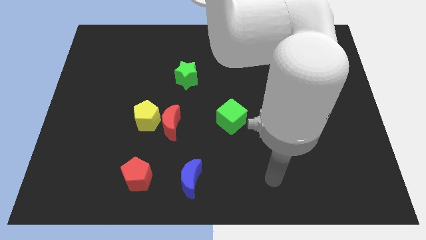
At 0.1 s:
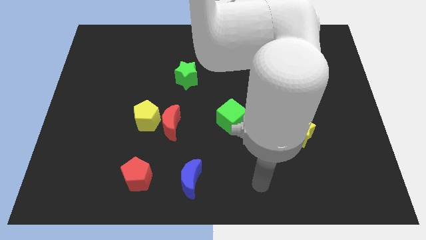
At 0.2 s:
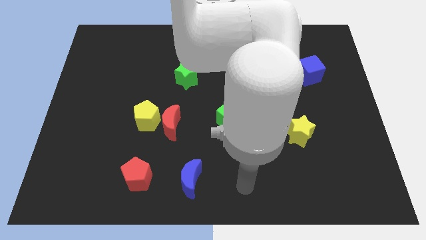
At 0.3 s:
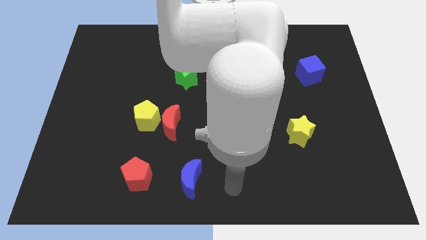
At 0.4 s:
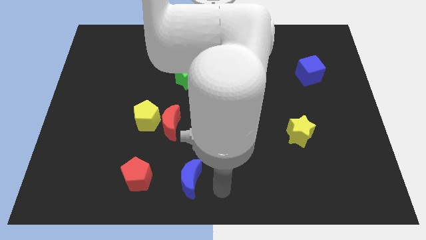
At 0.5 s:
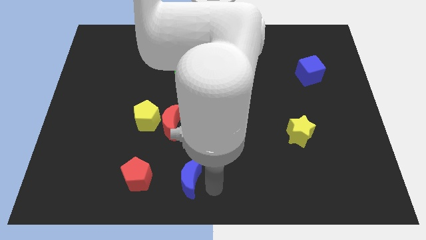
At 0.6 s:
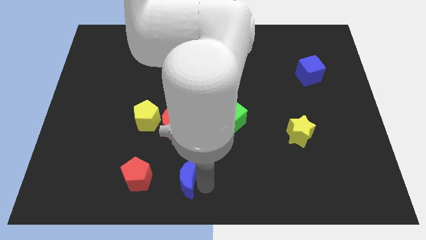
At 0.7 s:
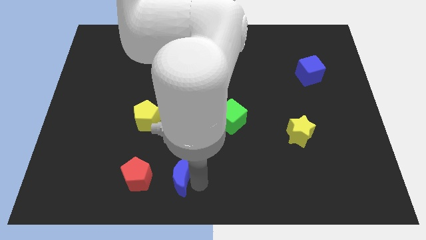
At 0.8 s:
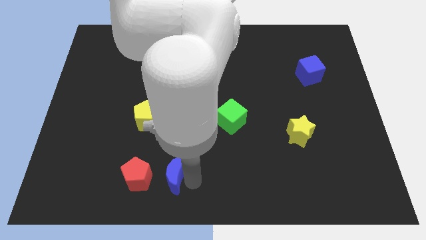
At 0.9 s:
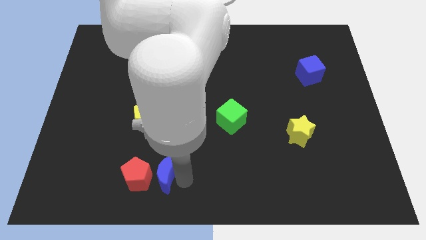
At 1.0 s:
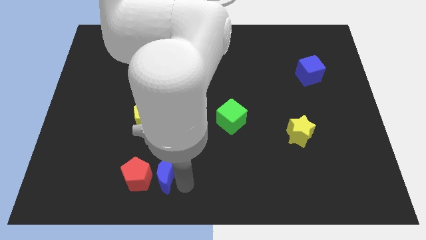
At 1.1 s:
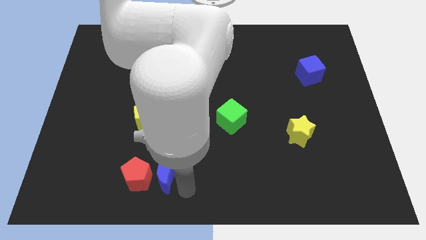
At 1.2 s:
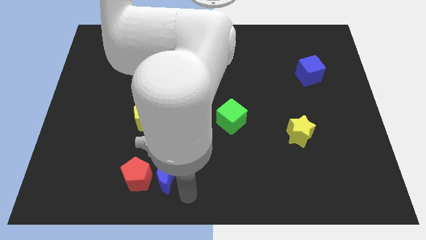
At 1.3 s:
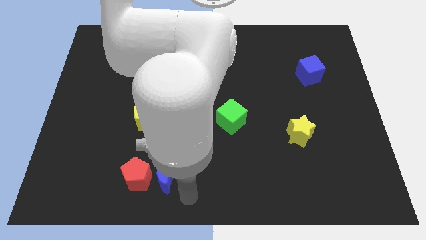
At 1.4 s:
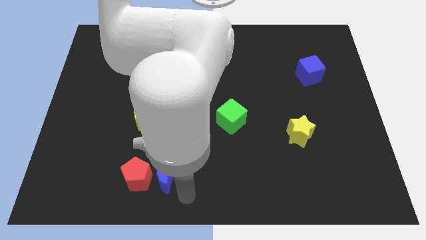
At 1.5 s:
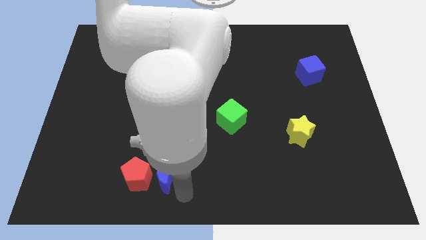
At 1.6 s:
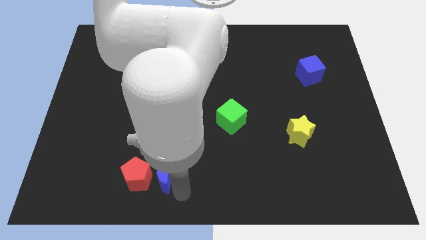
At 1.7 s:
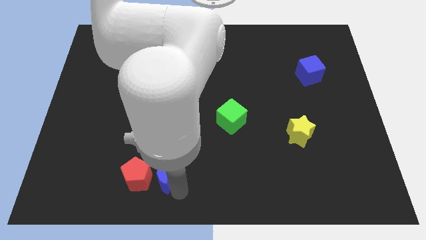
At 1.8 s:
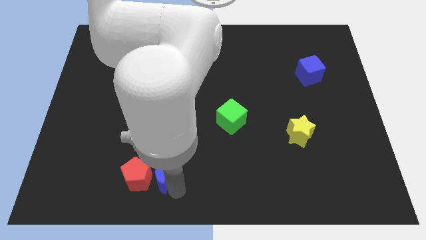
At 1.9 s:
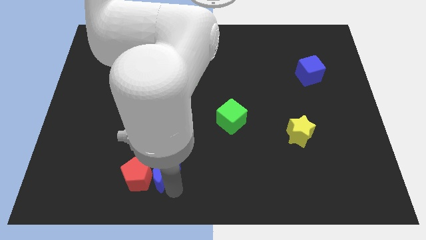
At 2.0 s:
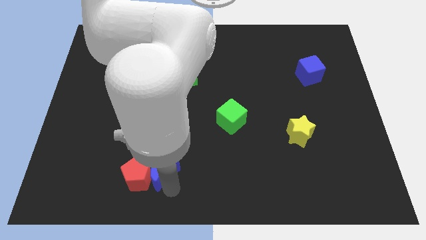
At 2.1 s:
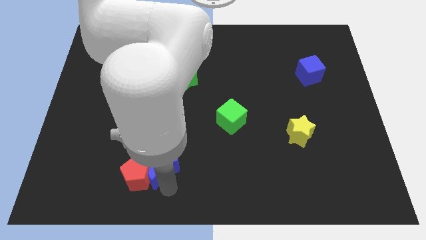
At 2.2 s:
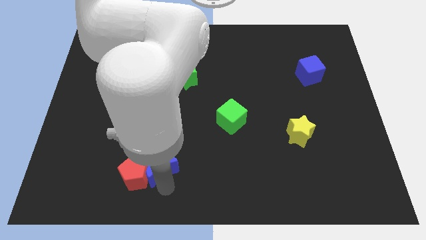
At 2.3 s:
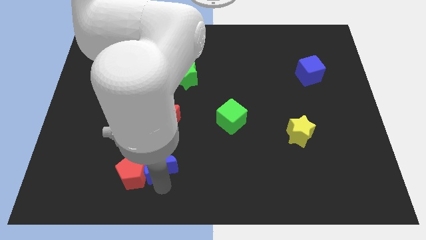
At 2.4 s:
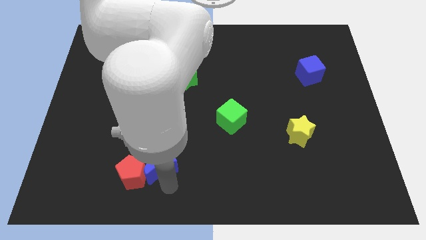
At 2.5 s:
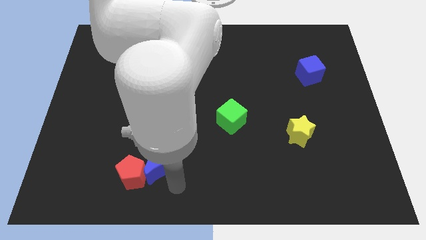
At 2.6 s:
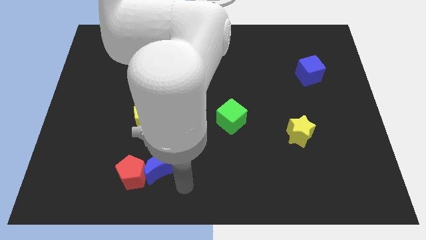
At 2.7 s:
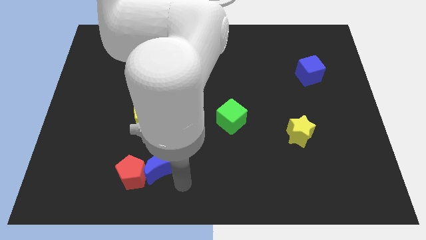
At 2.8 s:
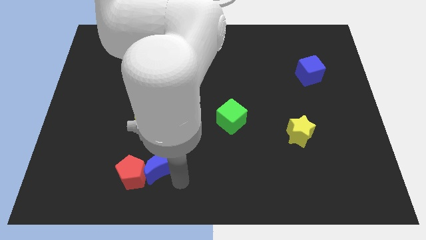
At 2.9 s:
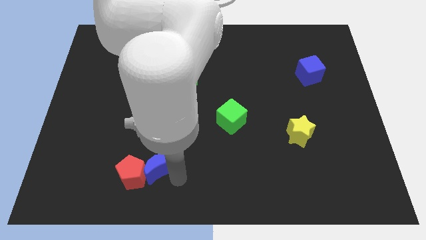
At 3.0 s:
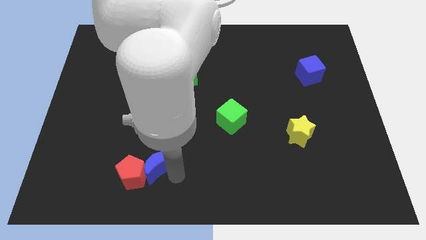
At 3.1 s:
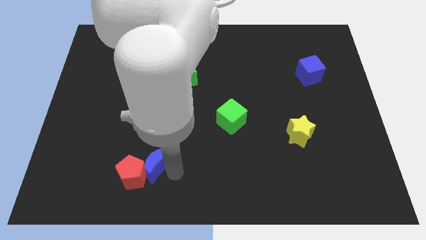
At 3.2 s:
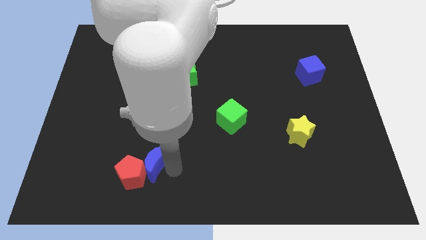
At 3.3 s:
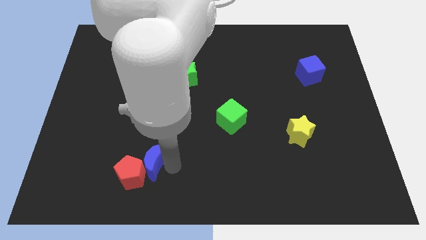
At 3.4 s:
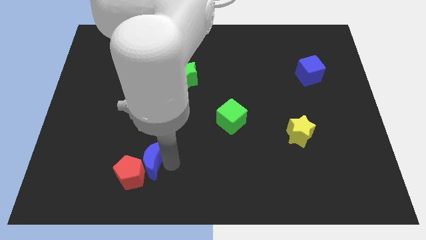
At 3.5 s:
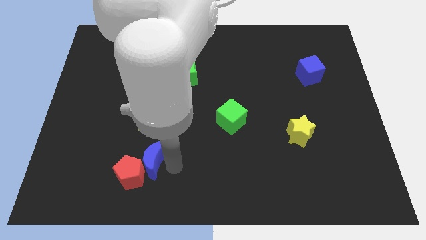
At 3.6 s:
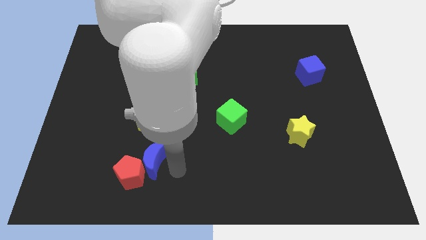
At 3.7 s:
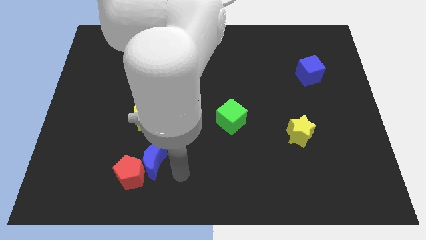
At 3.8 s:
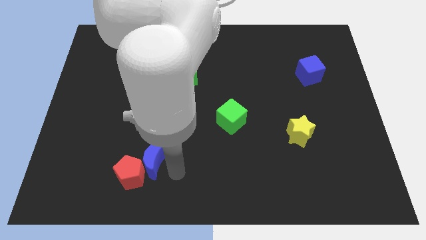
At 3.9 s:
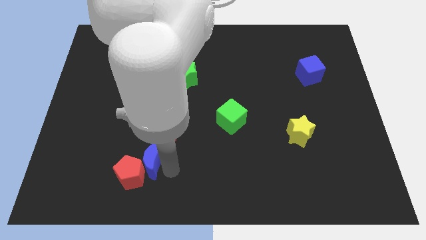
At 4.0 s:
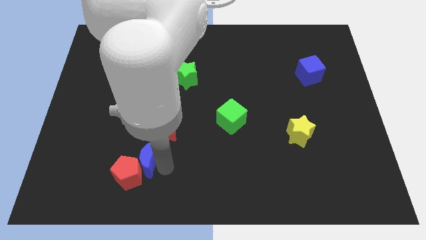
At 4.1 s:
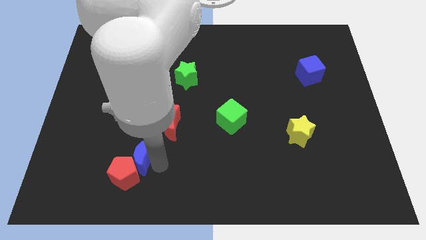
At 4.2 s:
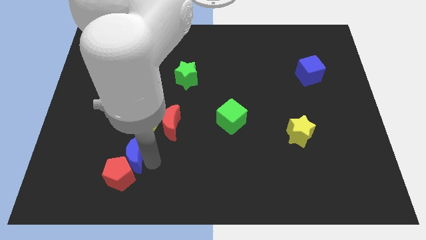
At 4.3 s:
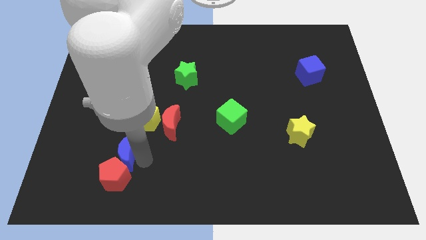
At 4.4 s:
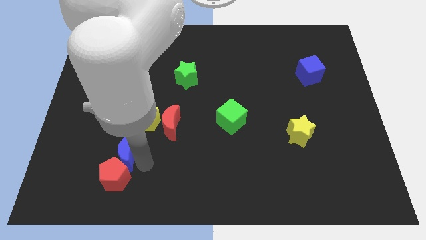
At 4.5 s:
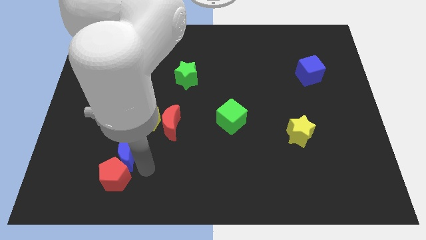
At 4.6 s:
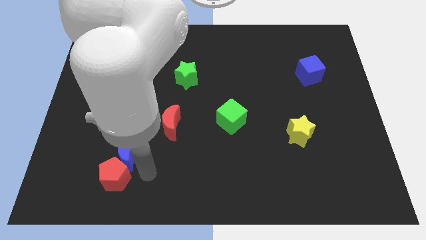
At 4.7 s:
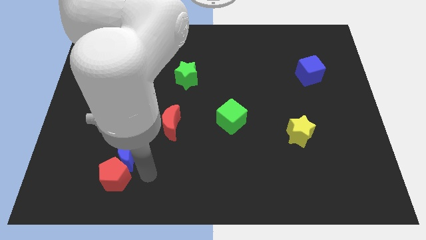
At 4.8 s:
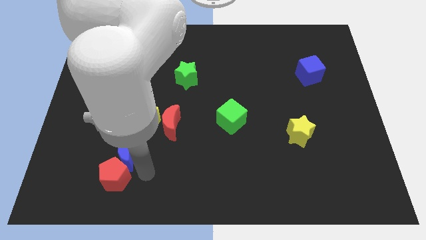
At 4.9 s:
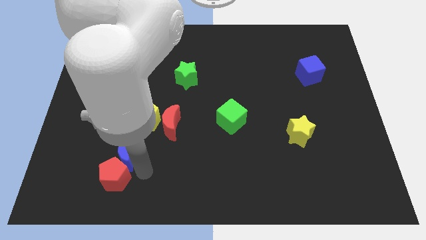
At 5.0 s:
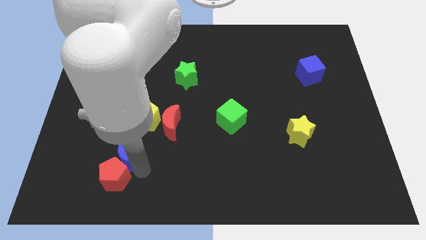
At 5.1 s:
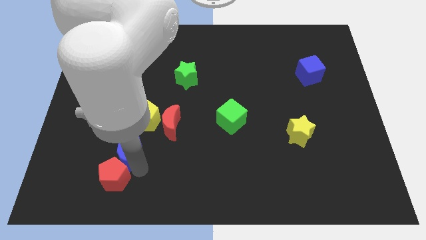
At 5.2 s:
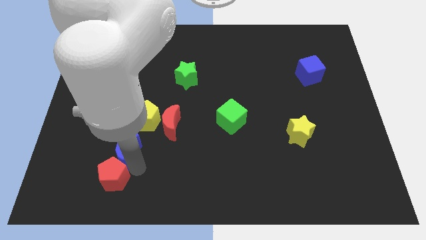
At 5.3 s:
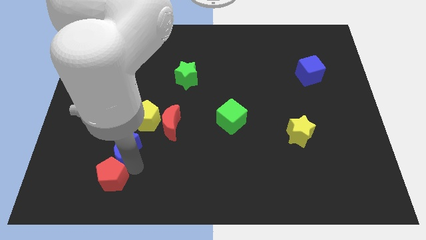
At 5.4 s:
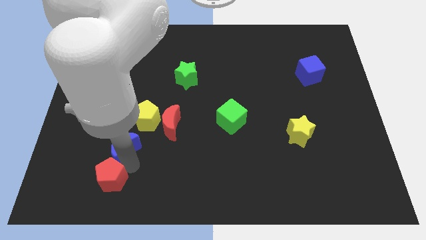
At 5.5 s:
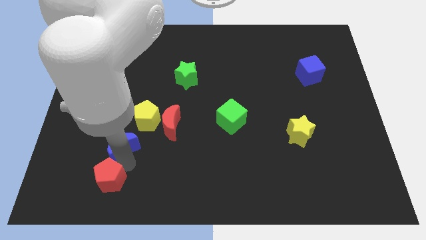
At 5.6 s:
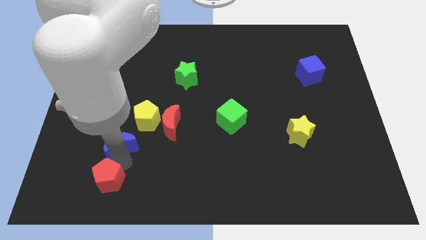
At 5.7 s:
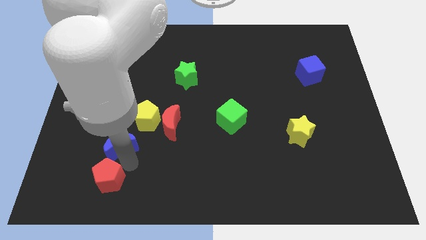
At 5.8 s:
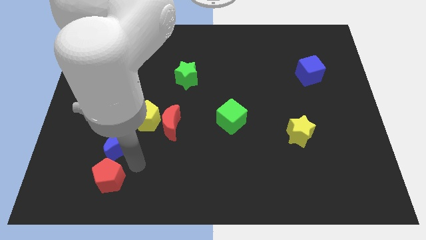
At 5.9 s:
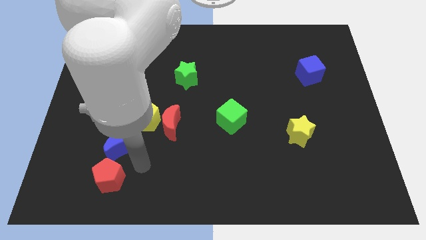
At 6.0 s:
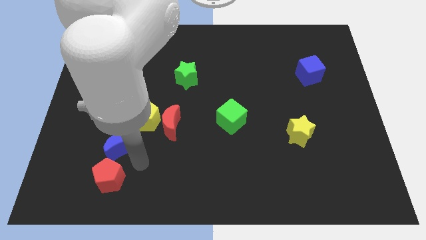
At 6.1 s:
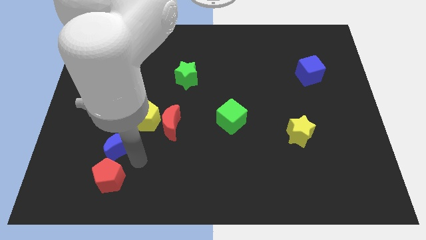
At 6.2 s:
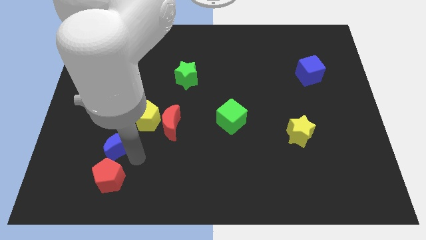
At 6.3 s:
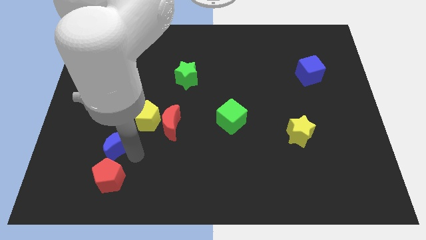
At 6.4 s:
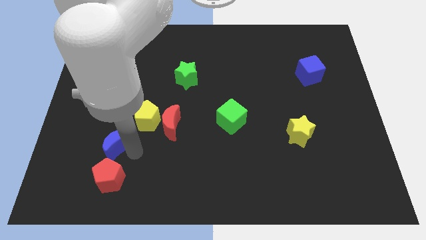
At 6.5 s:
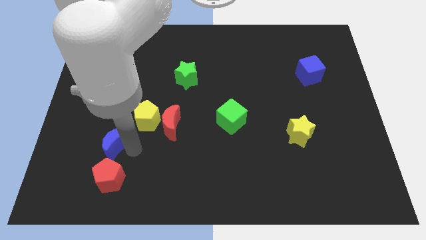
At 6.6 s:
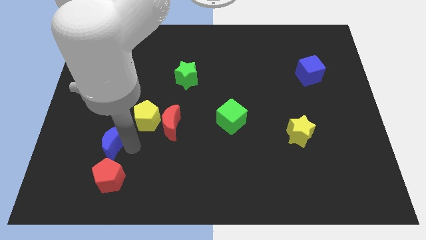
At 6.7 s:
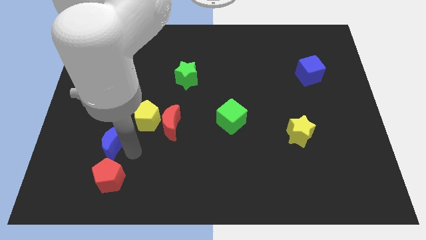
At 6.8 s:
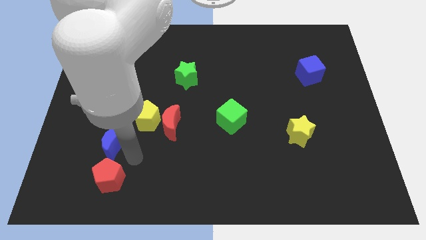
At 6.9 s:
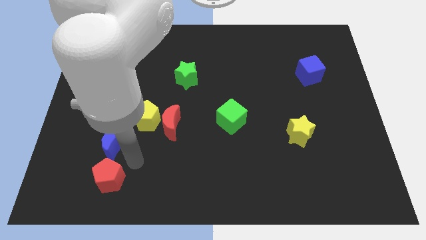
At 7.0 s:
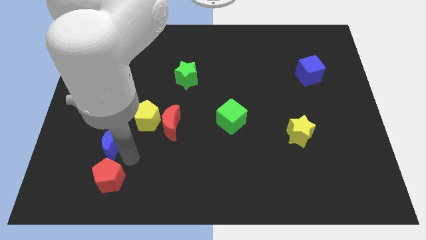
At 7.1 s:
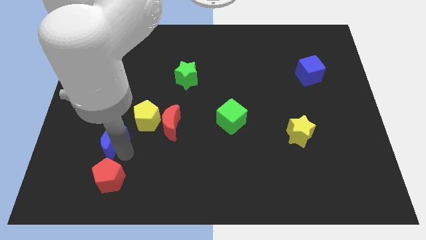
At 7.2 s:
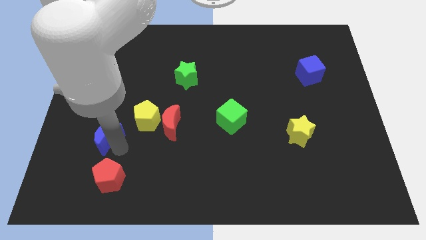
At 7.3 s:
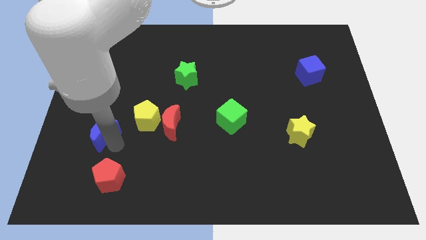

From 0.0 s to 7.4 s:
move the blue moon upwards and to the left

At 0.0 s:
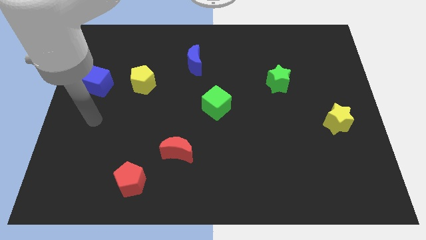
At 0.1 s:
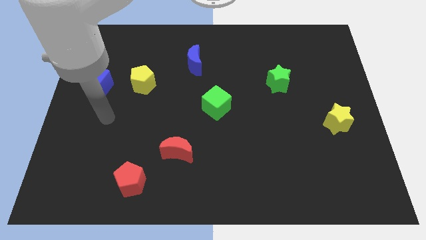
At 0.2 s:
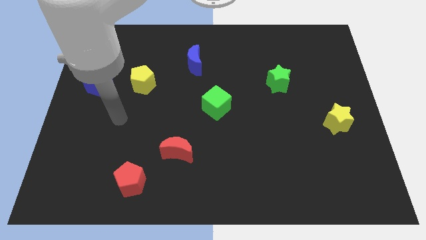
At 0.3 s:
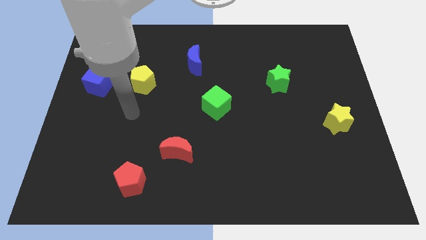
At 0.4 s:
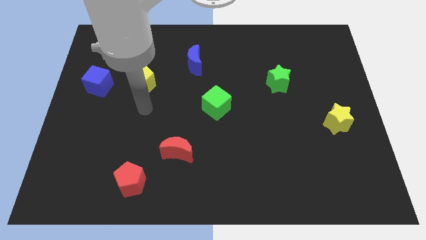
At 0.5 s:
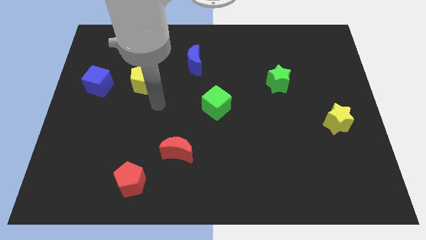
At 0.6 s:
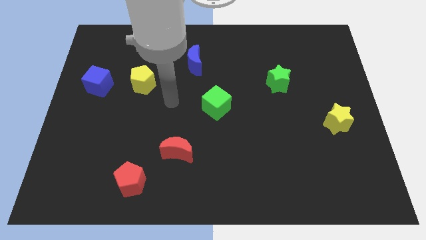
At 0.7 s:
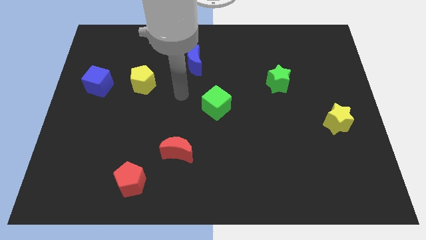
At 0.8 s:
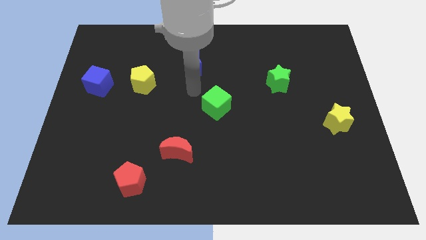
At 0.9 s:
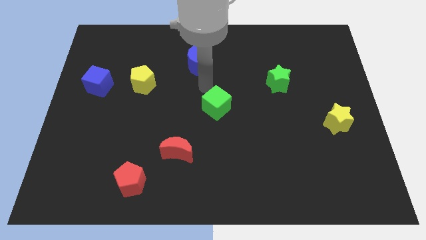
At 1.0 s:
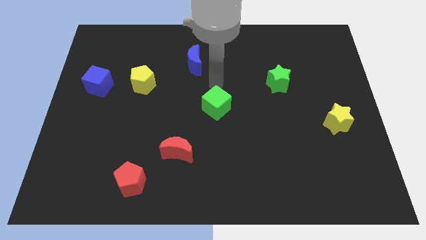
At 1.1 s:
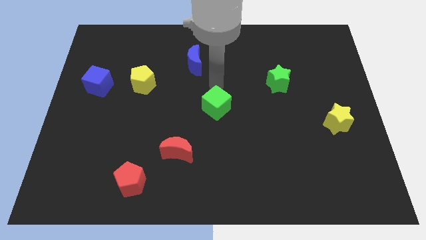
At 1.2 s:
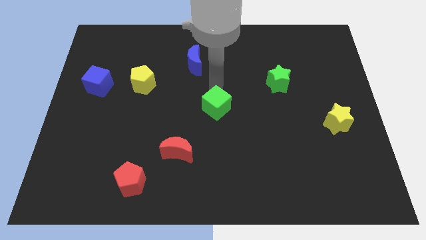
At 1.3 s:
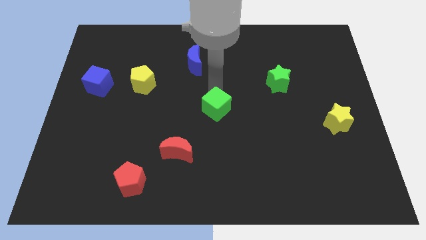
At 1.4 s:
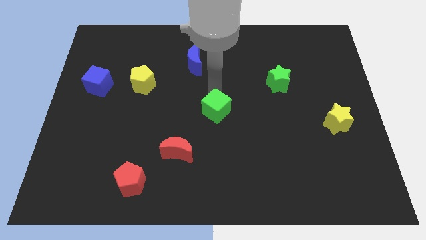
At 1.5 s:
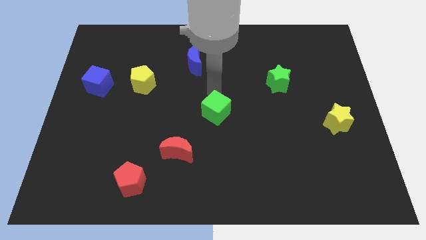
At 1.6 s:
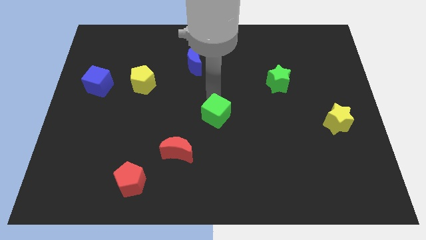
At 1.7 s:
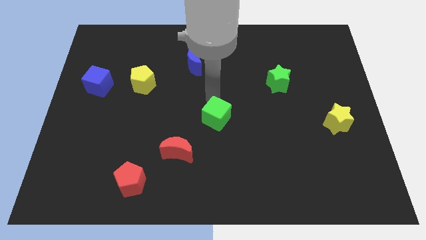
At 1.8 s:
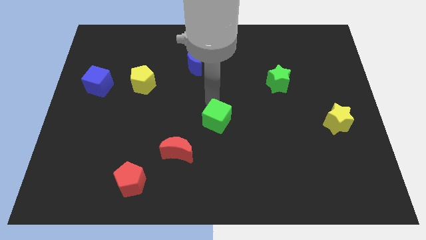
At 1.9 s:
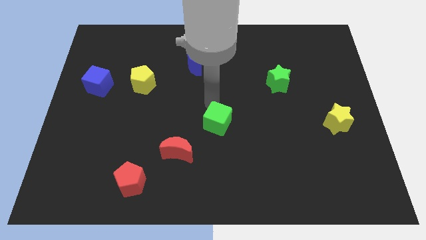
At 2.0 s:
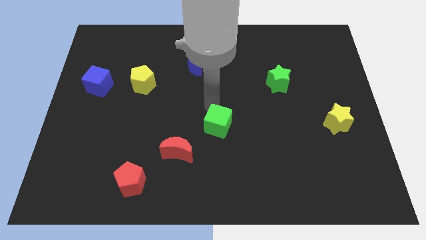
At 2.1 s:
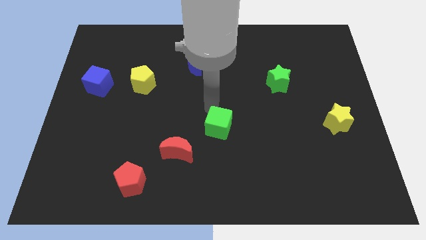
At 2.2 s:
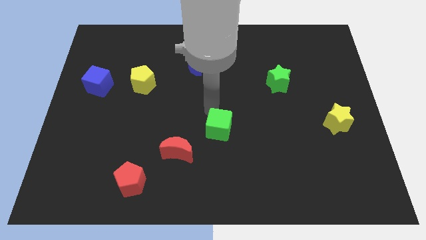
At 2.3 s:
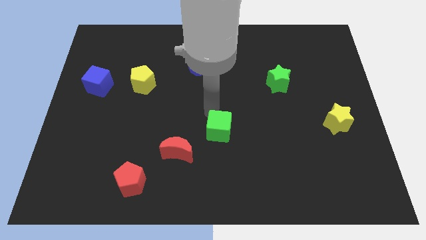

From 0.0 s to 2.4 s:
slide the green cube downwards slightly
